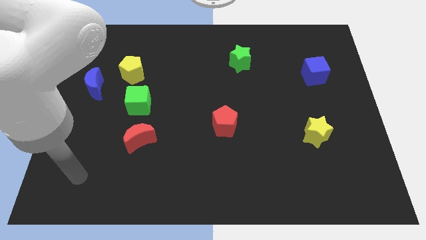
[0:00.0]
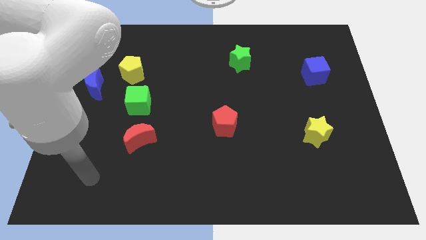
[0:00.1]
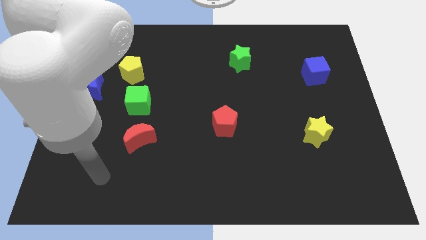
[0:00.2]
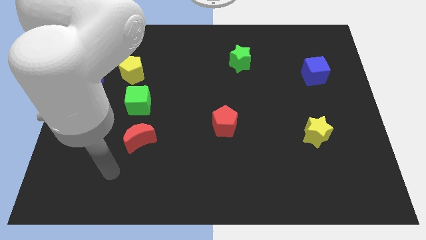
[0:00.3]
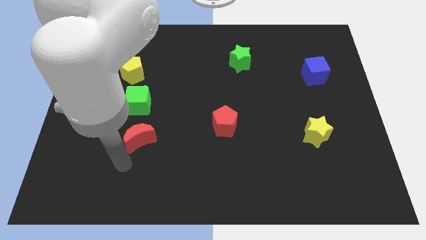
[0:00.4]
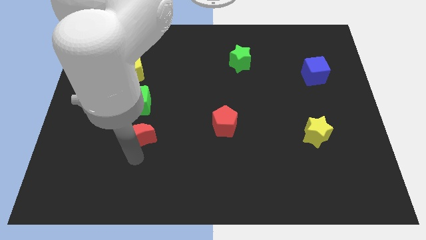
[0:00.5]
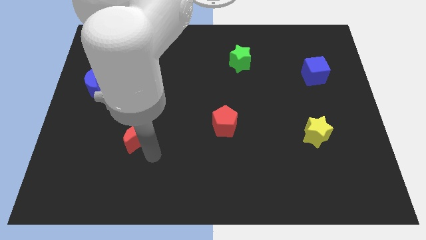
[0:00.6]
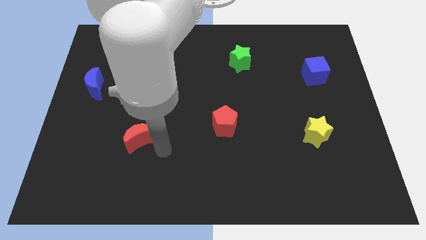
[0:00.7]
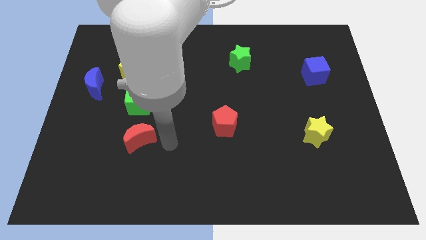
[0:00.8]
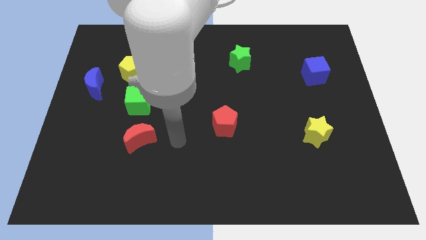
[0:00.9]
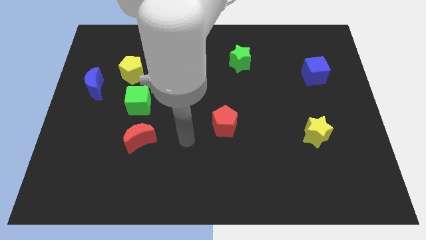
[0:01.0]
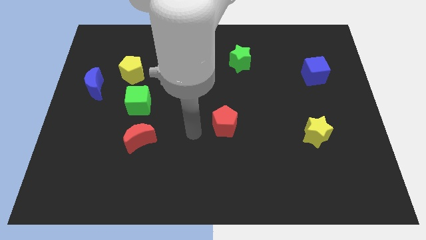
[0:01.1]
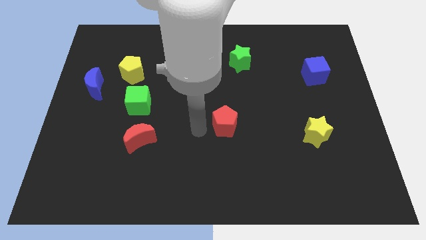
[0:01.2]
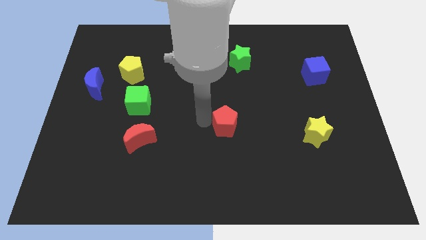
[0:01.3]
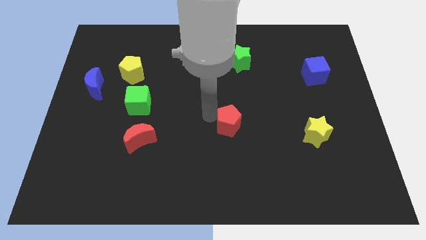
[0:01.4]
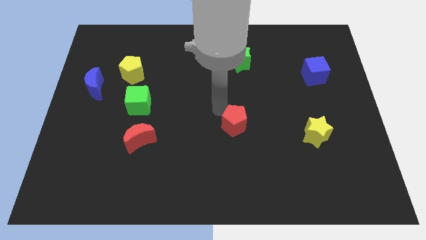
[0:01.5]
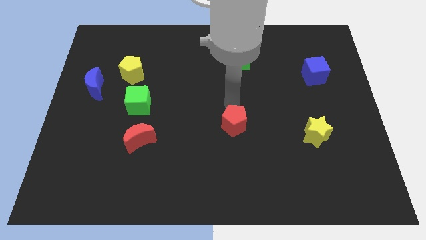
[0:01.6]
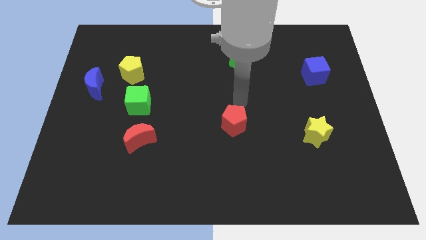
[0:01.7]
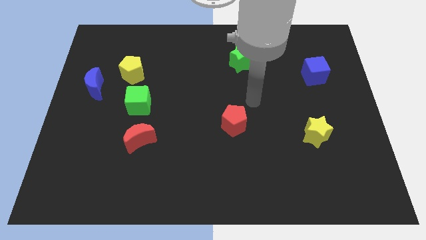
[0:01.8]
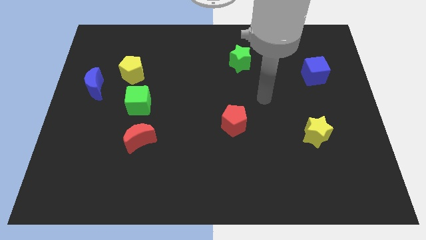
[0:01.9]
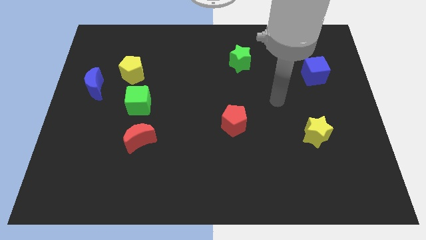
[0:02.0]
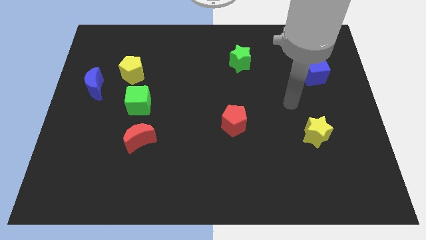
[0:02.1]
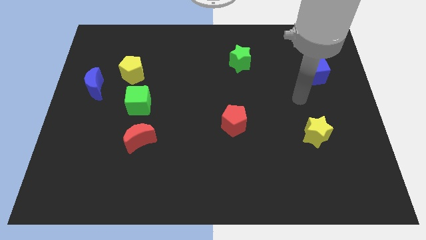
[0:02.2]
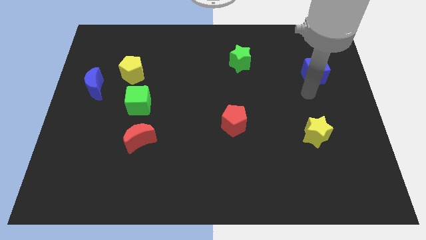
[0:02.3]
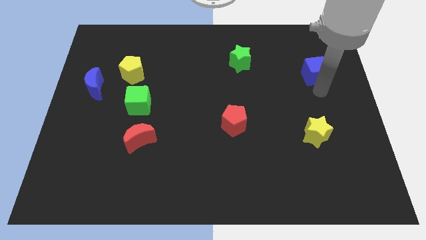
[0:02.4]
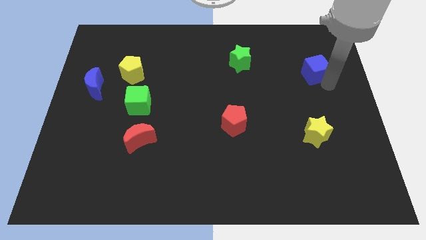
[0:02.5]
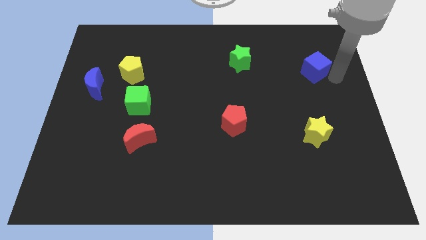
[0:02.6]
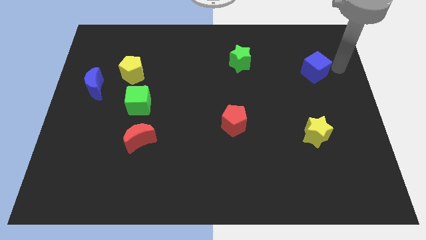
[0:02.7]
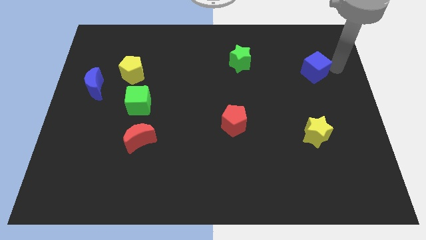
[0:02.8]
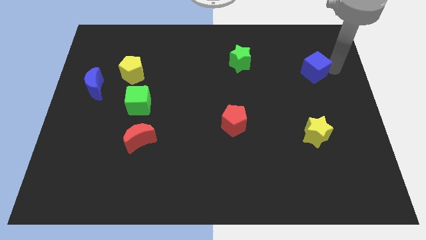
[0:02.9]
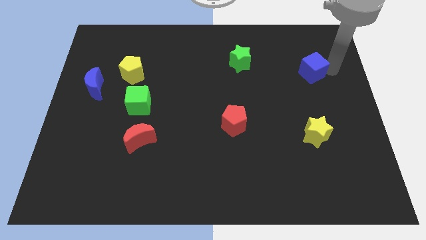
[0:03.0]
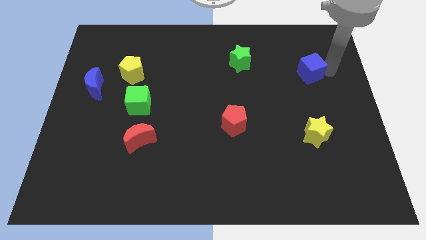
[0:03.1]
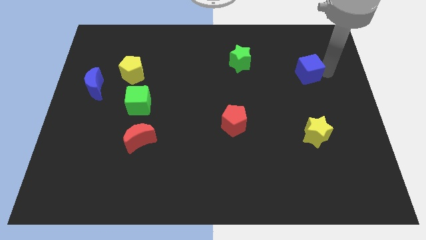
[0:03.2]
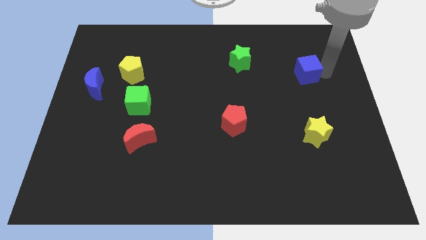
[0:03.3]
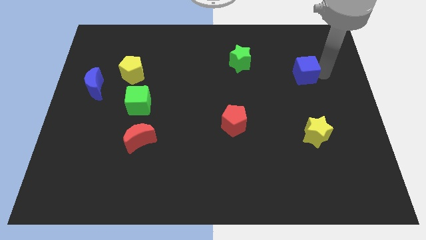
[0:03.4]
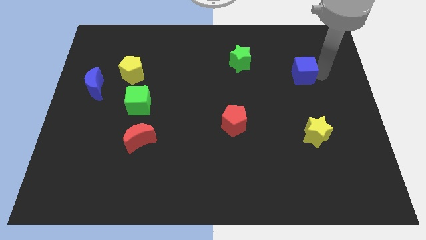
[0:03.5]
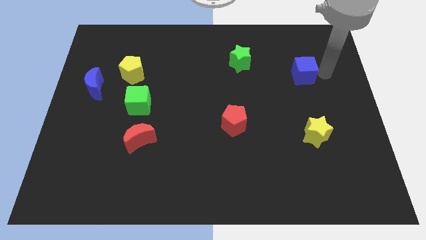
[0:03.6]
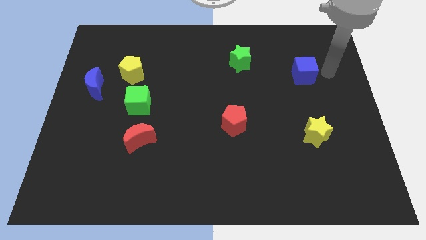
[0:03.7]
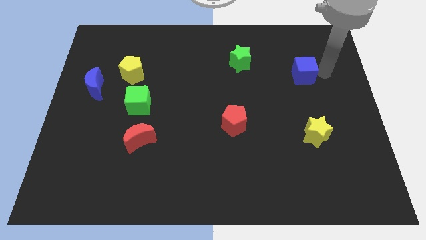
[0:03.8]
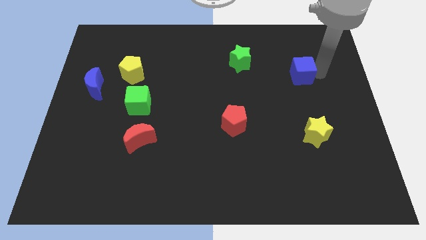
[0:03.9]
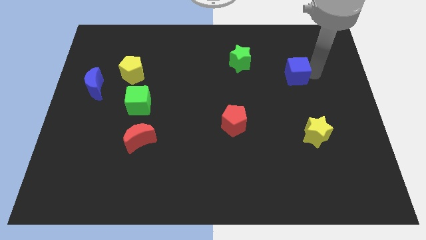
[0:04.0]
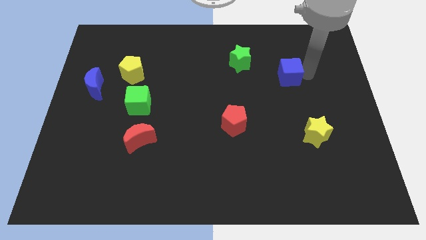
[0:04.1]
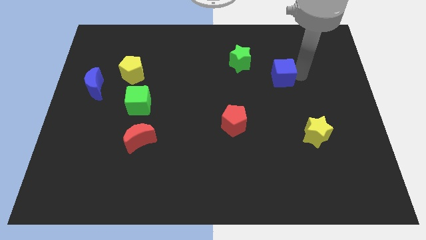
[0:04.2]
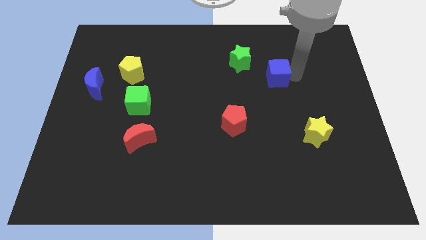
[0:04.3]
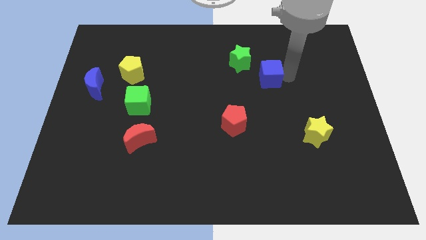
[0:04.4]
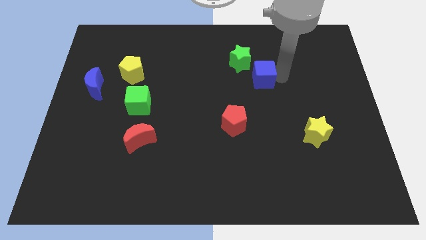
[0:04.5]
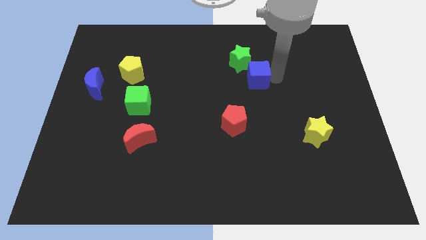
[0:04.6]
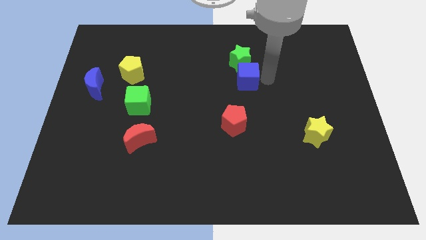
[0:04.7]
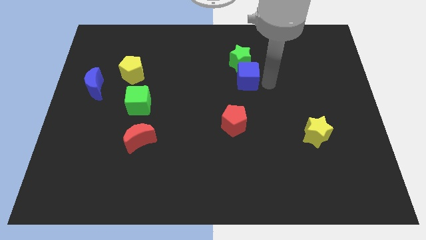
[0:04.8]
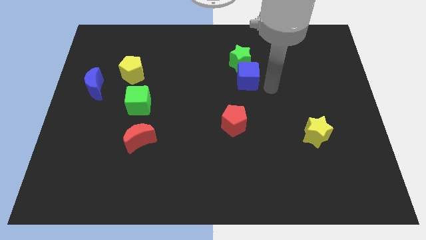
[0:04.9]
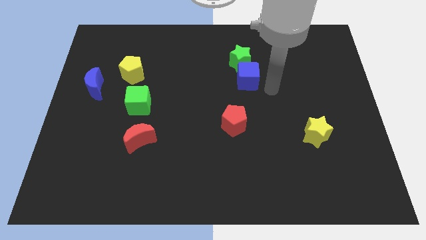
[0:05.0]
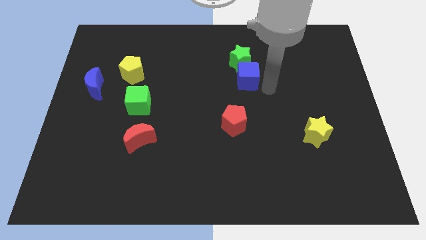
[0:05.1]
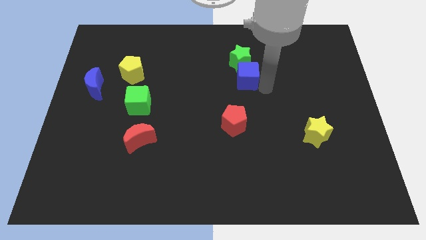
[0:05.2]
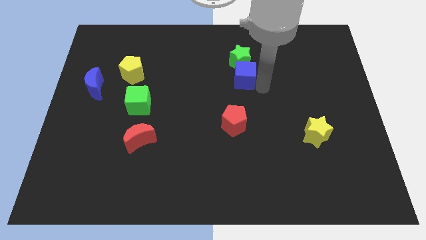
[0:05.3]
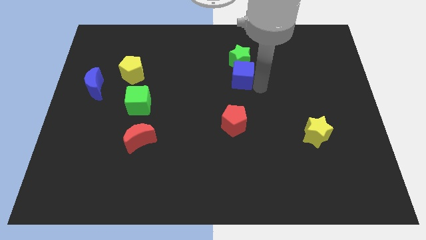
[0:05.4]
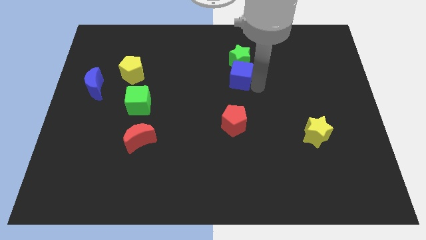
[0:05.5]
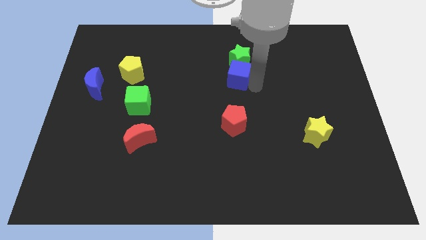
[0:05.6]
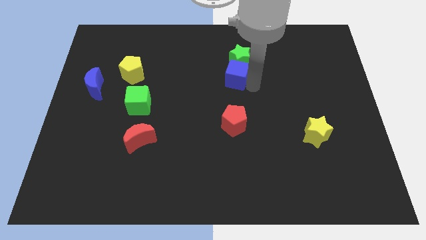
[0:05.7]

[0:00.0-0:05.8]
push the blue cube to the left

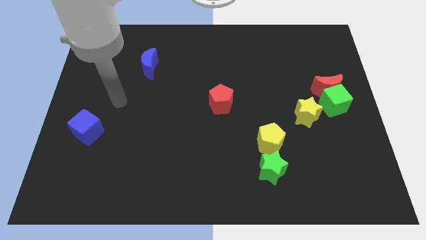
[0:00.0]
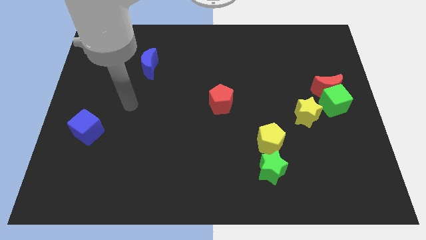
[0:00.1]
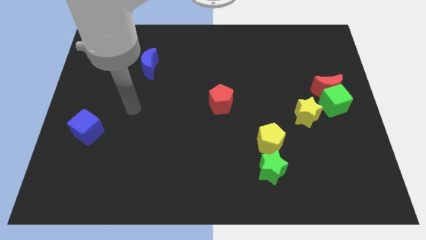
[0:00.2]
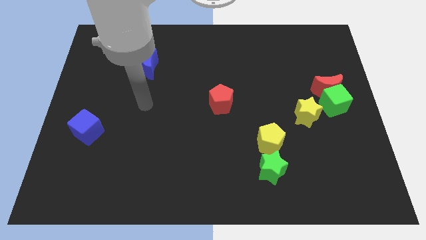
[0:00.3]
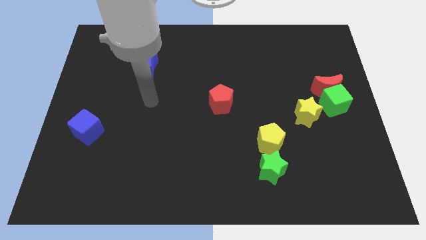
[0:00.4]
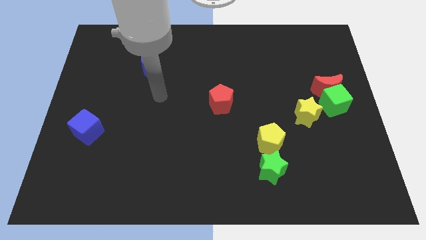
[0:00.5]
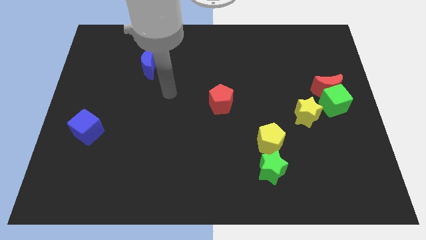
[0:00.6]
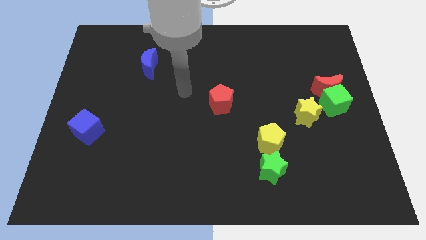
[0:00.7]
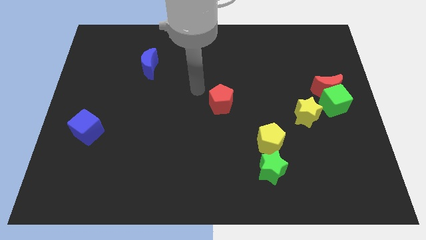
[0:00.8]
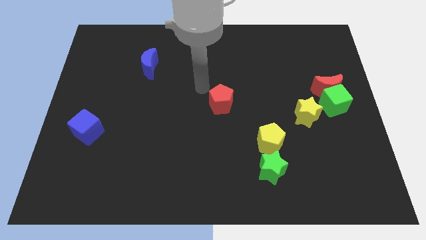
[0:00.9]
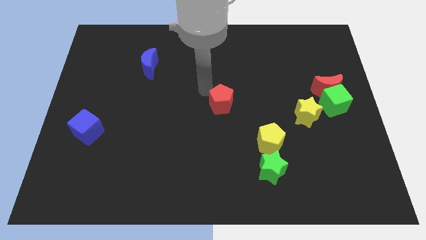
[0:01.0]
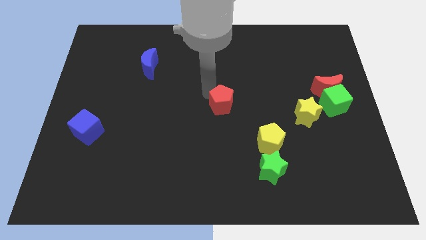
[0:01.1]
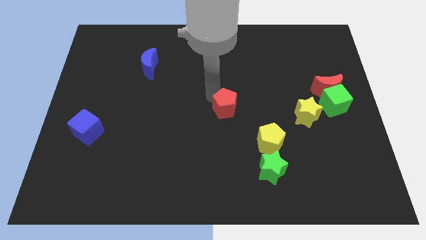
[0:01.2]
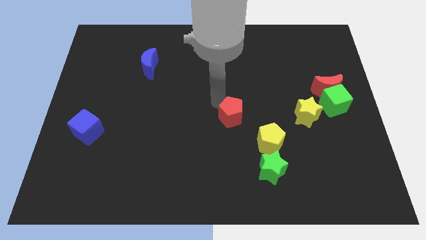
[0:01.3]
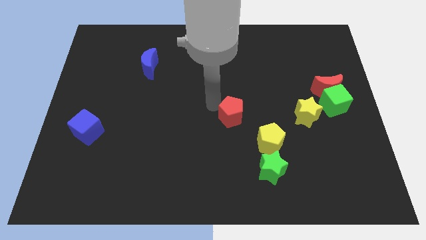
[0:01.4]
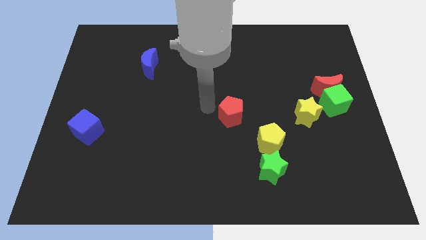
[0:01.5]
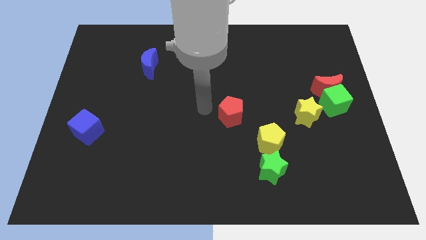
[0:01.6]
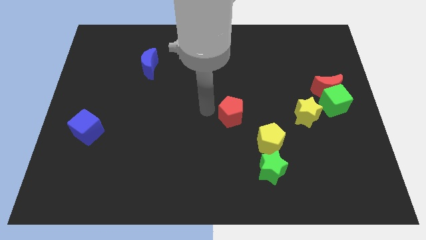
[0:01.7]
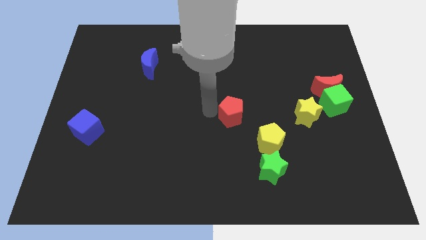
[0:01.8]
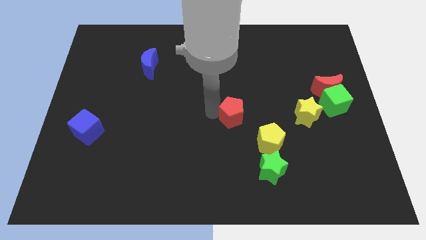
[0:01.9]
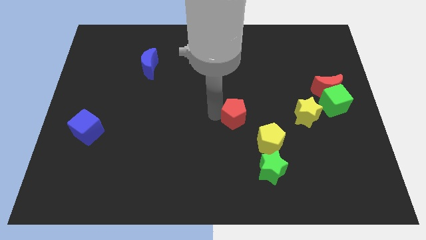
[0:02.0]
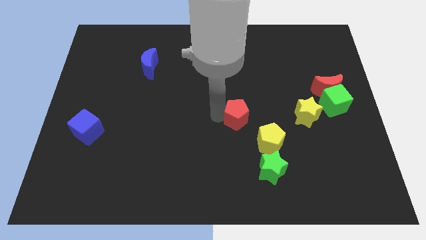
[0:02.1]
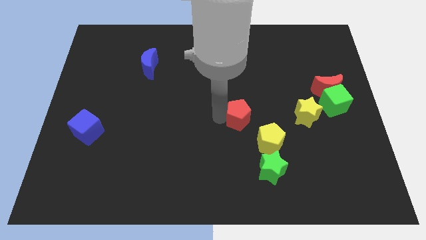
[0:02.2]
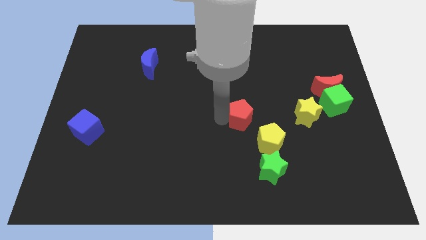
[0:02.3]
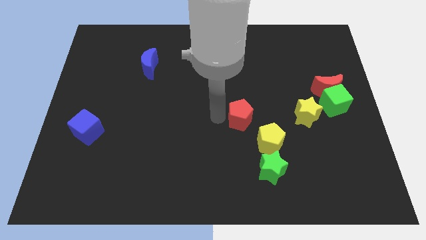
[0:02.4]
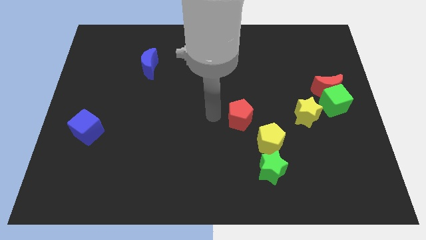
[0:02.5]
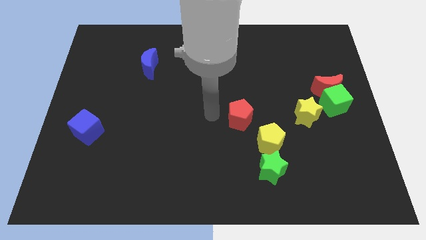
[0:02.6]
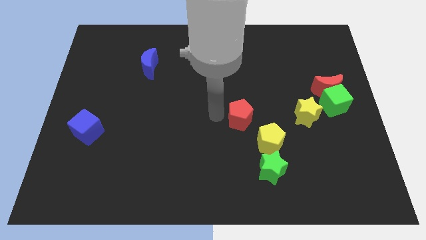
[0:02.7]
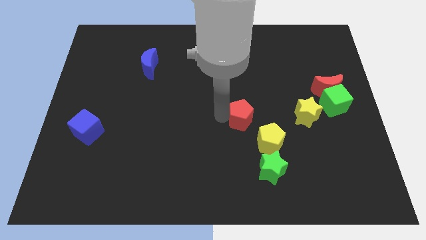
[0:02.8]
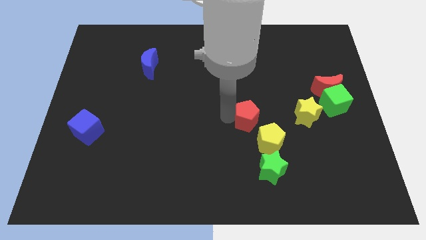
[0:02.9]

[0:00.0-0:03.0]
slide the red pentagon downwards and to the right diagonally a little bit
